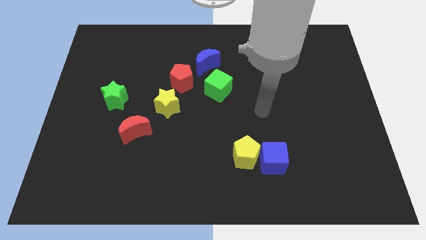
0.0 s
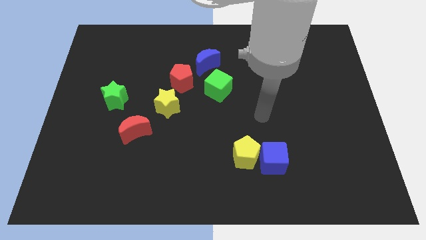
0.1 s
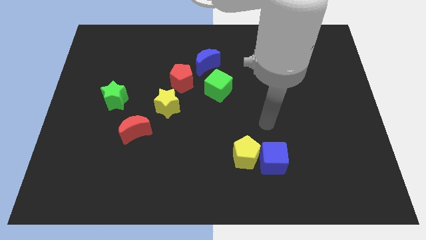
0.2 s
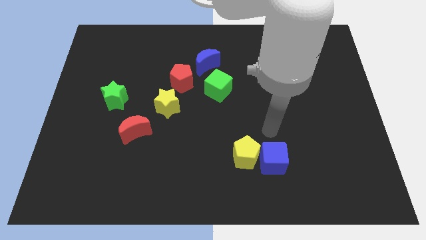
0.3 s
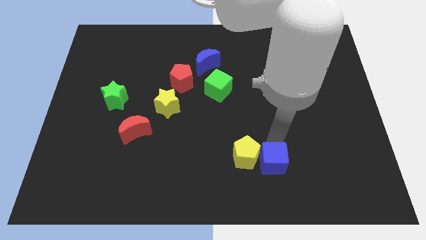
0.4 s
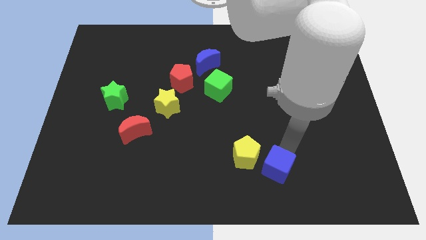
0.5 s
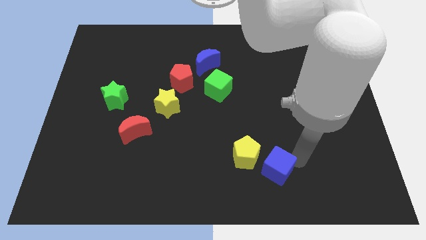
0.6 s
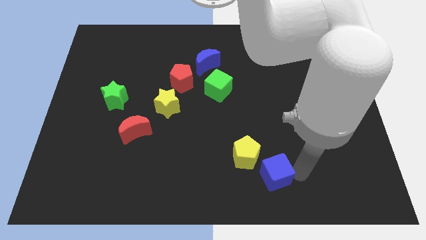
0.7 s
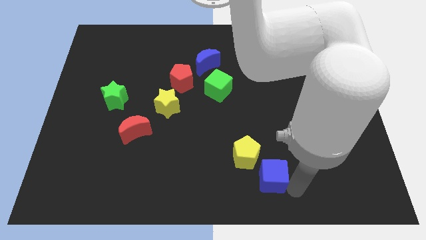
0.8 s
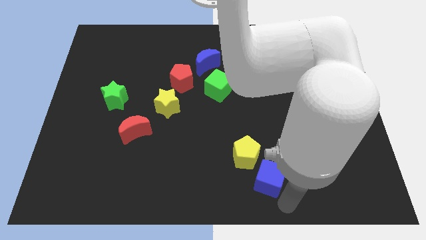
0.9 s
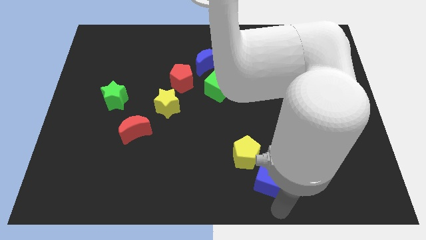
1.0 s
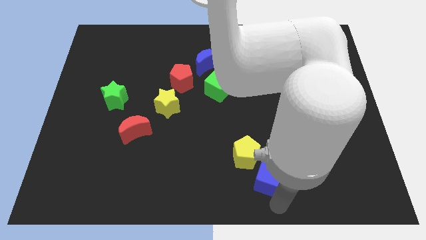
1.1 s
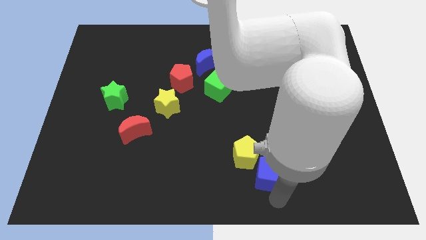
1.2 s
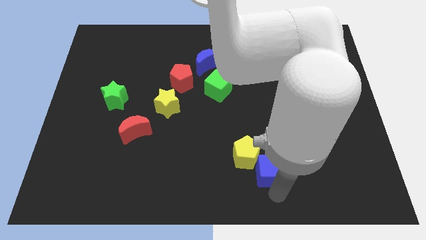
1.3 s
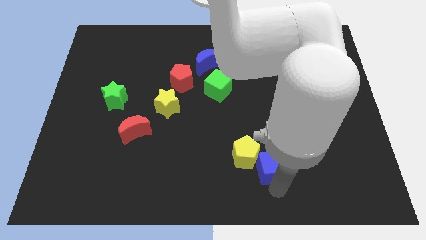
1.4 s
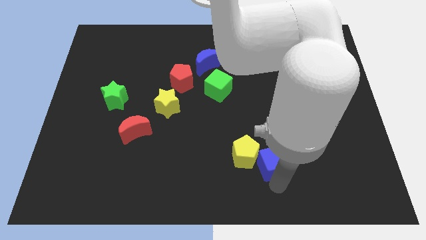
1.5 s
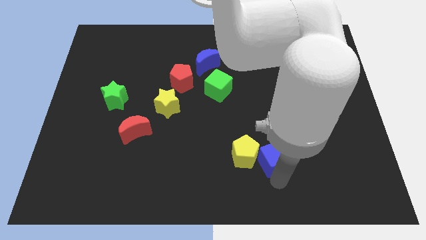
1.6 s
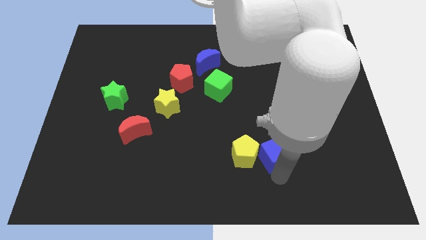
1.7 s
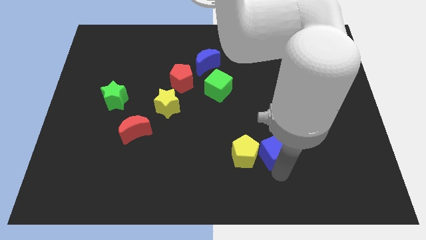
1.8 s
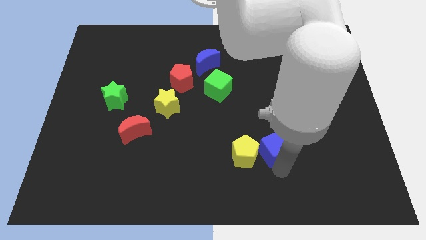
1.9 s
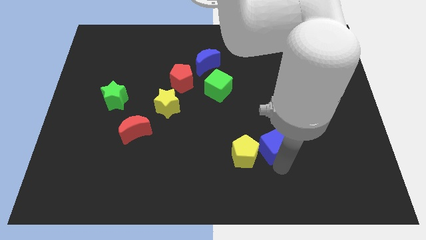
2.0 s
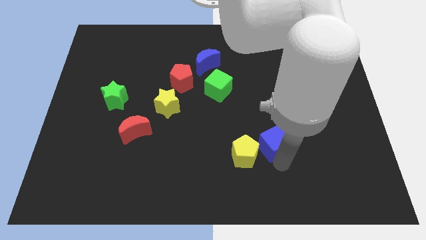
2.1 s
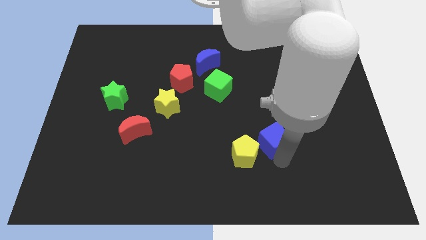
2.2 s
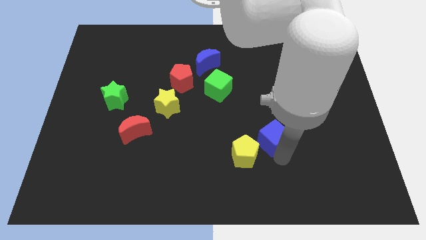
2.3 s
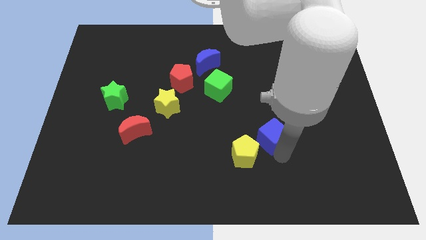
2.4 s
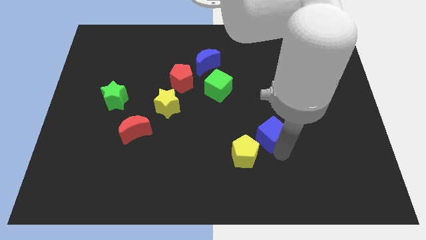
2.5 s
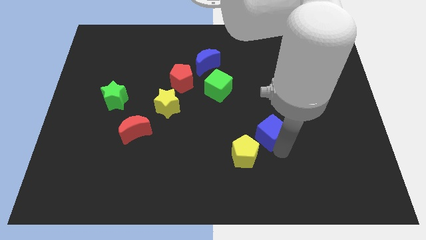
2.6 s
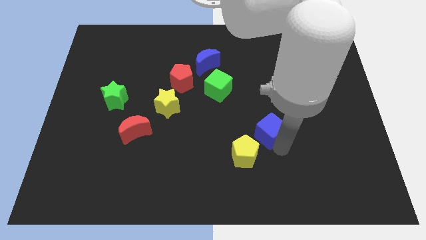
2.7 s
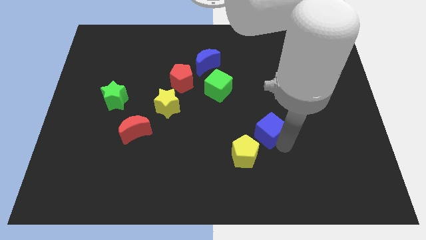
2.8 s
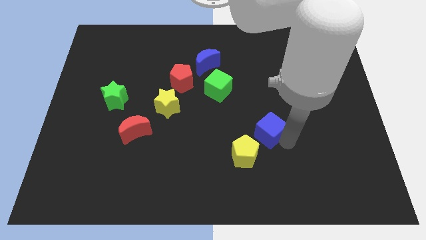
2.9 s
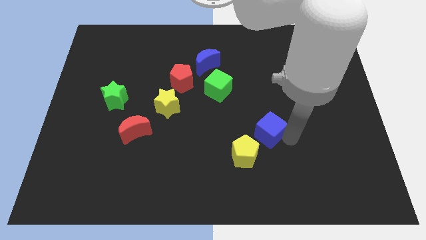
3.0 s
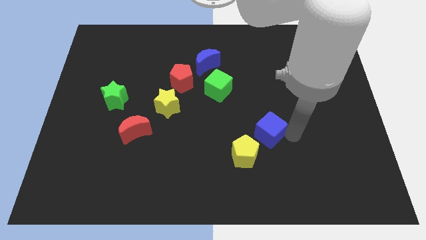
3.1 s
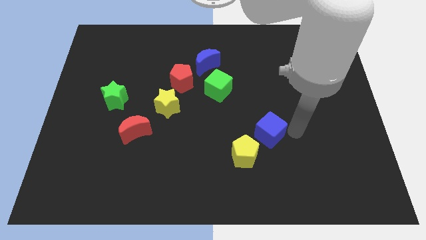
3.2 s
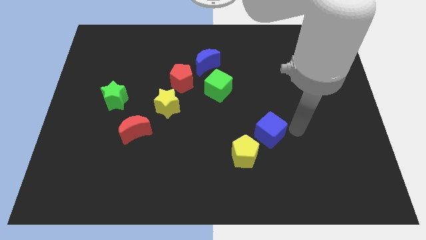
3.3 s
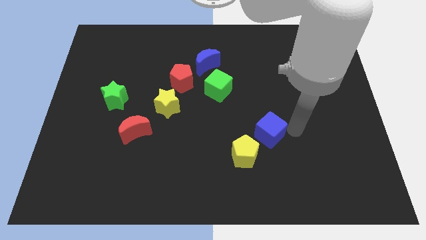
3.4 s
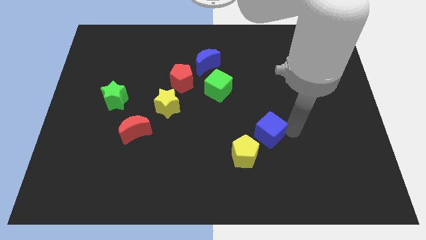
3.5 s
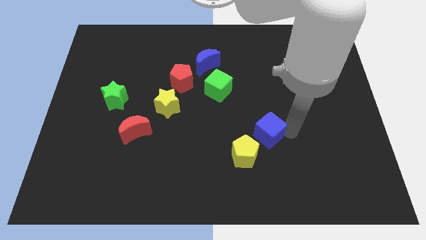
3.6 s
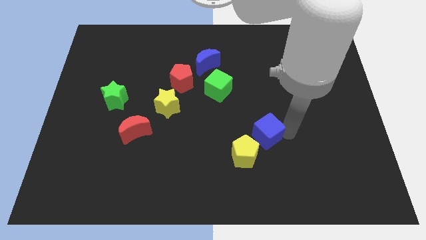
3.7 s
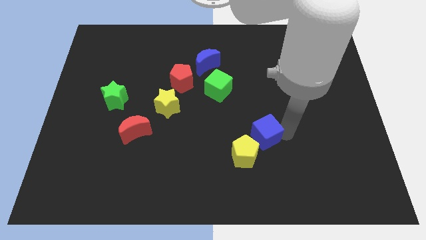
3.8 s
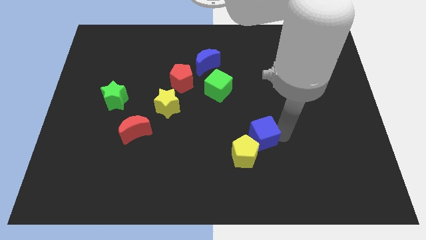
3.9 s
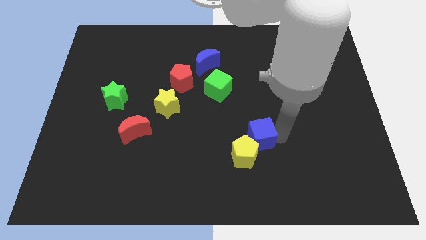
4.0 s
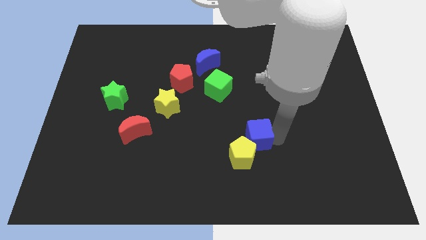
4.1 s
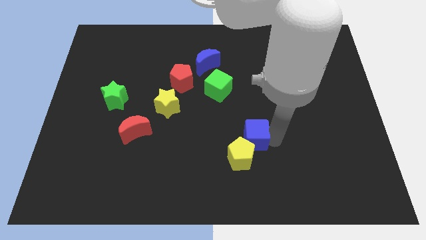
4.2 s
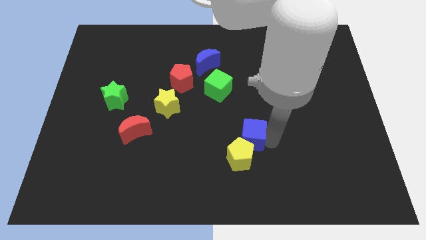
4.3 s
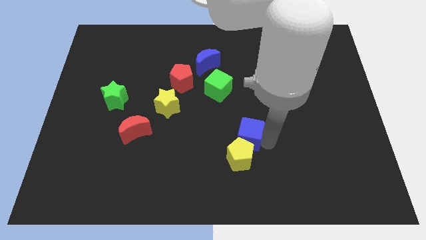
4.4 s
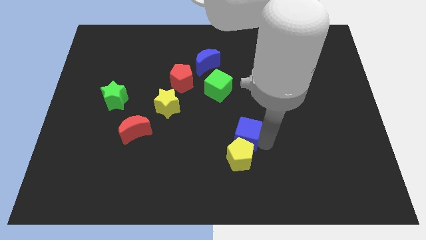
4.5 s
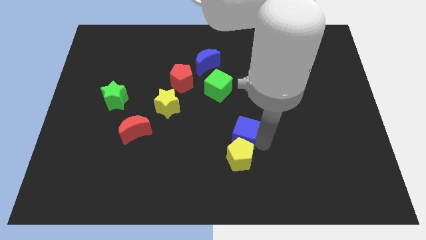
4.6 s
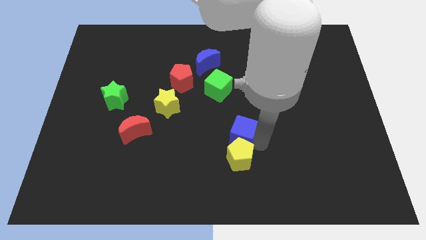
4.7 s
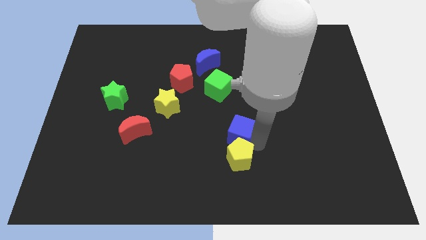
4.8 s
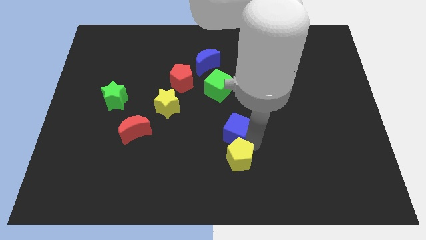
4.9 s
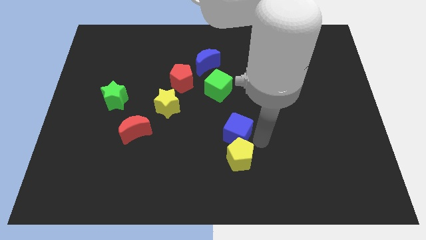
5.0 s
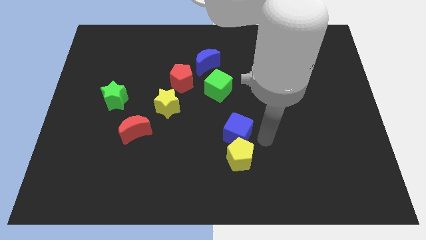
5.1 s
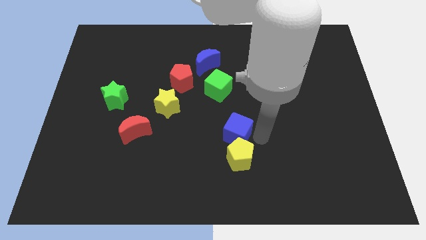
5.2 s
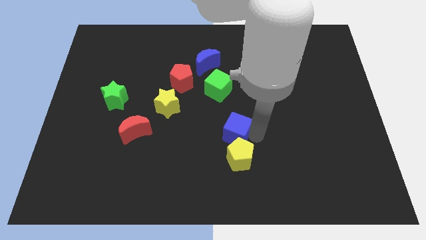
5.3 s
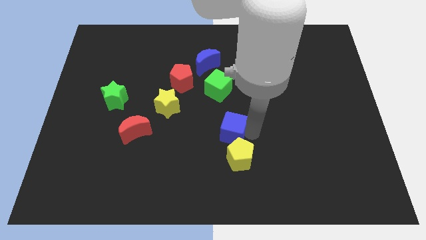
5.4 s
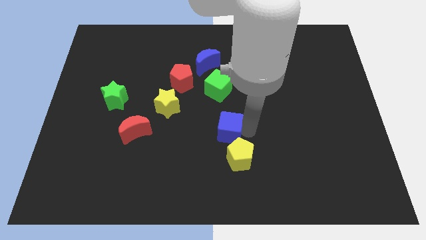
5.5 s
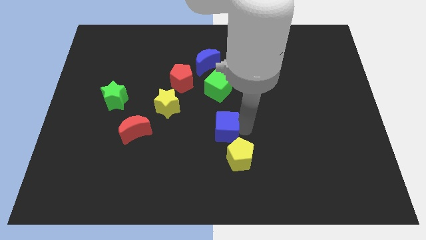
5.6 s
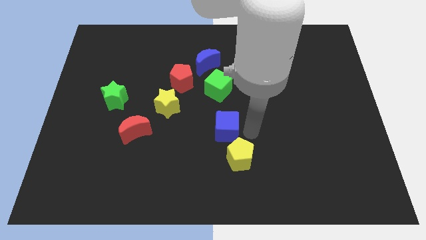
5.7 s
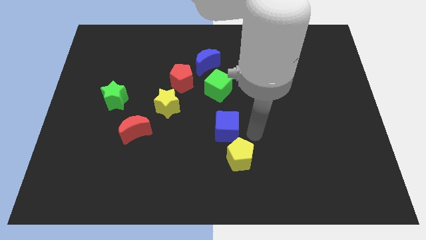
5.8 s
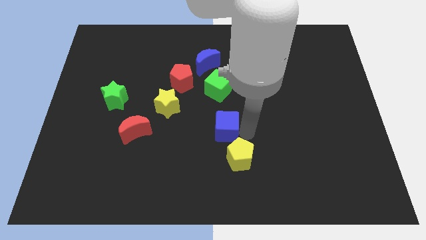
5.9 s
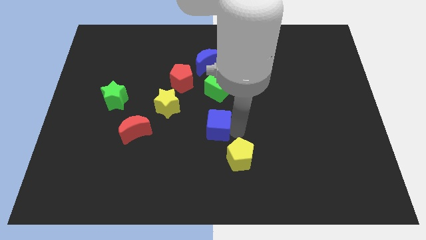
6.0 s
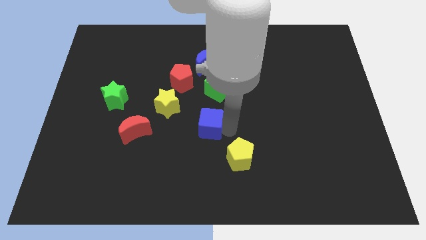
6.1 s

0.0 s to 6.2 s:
move the blue cube to the bottom right side of the yellow star

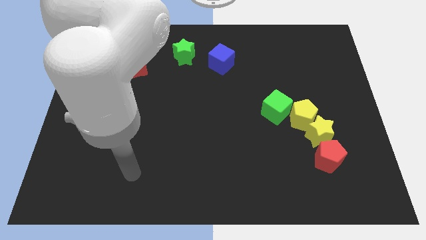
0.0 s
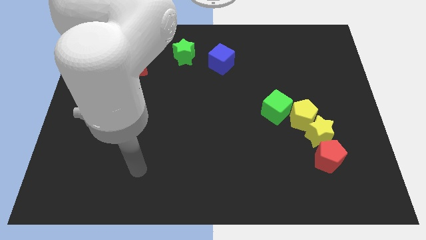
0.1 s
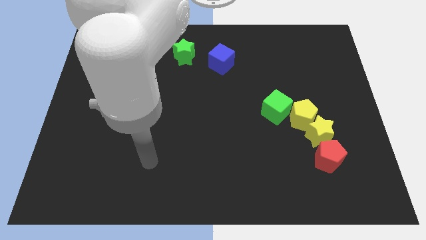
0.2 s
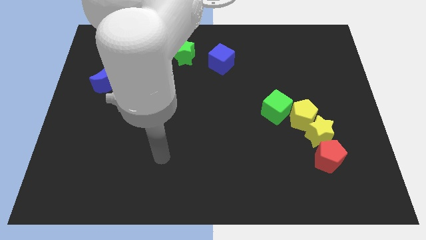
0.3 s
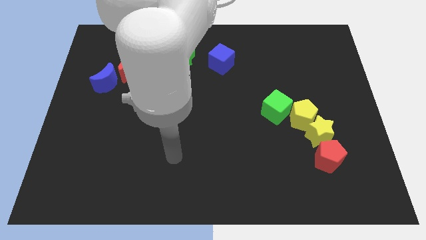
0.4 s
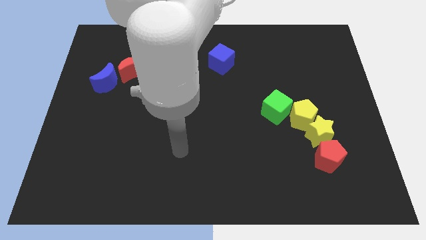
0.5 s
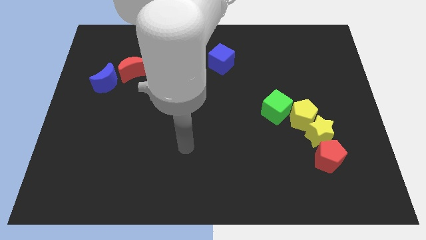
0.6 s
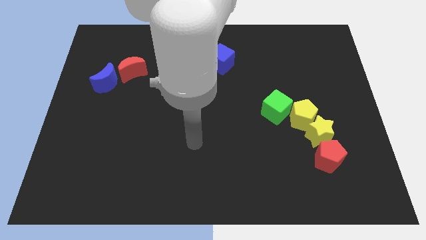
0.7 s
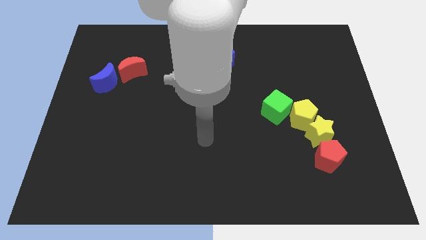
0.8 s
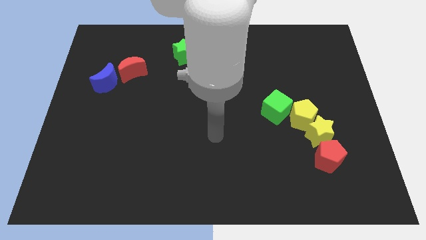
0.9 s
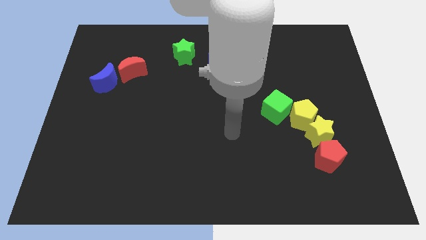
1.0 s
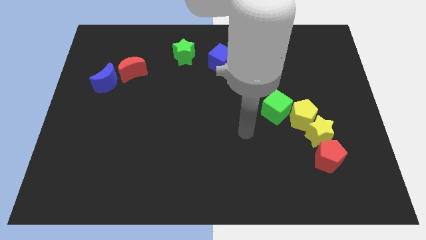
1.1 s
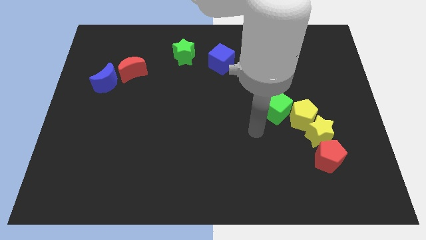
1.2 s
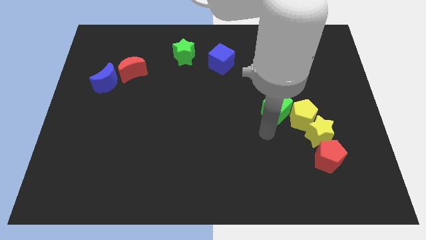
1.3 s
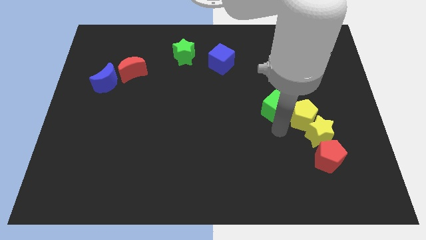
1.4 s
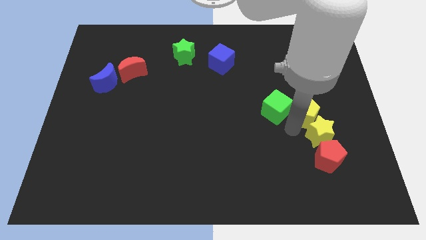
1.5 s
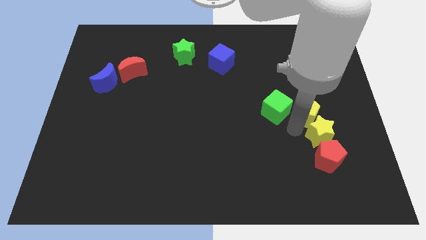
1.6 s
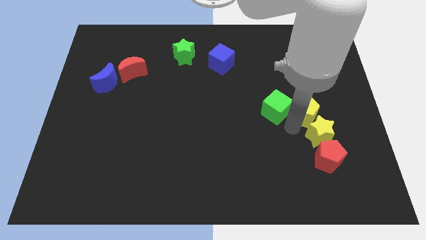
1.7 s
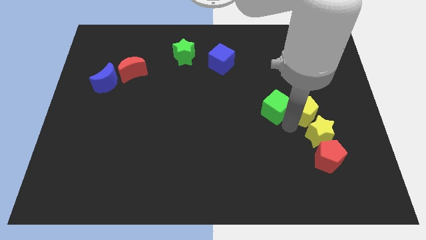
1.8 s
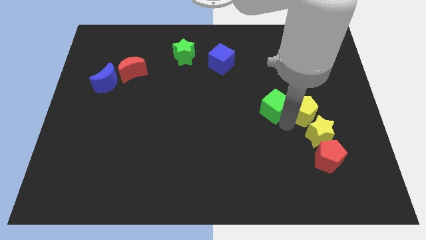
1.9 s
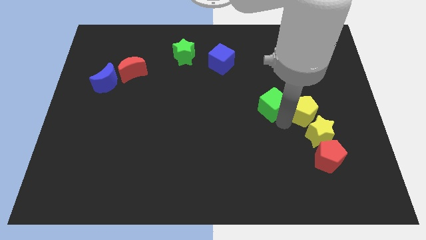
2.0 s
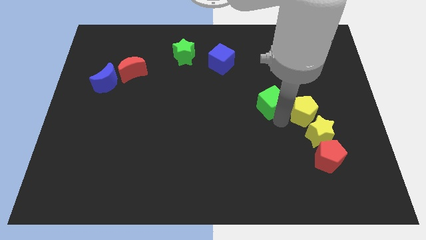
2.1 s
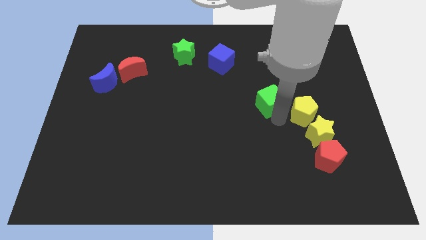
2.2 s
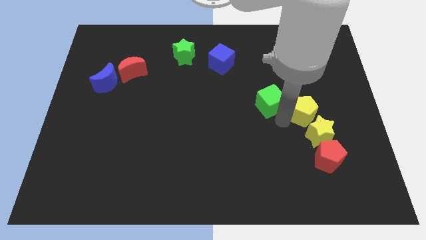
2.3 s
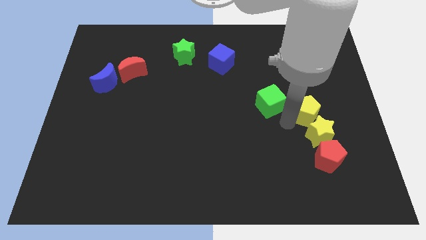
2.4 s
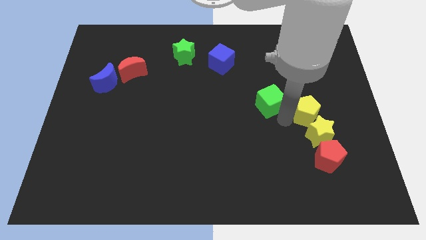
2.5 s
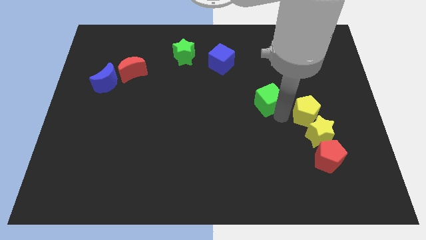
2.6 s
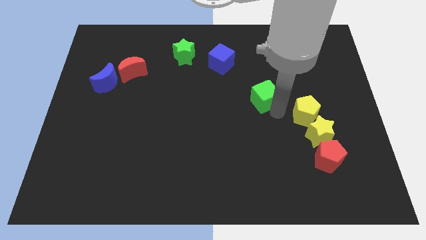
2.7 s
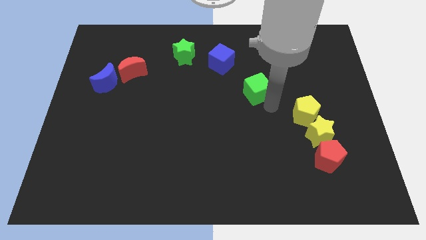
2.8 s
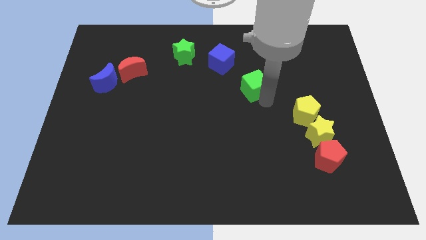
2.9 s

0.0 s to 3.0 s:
put the green cube to the bottom right of the blue cube
